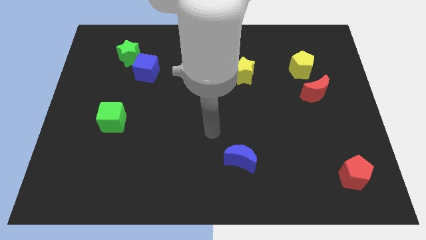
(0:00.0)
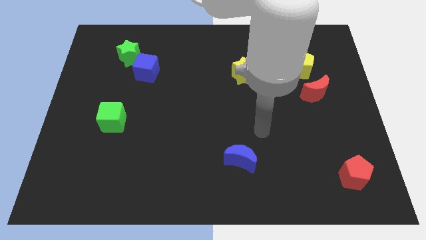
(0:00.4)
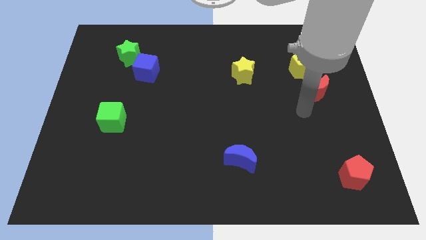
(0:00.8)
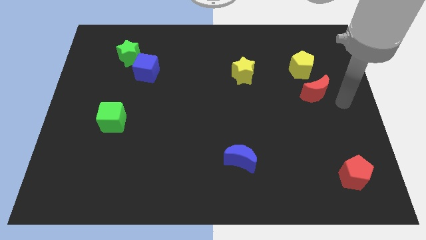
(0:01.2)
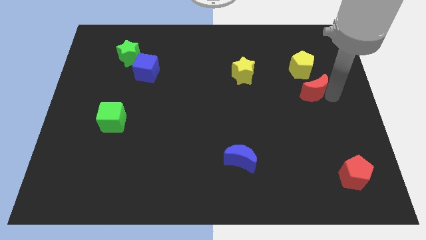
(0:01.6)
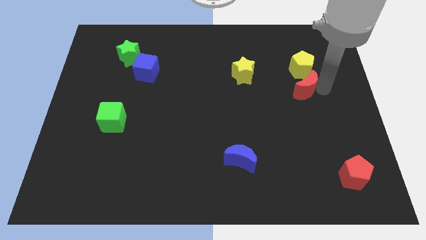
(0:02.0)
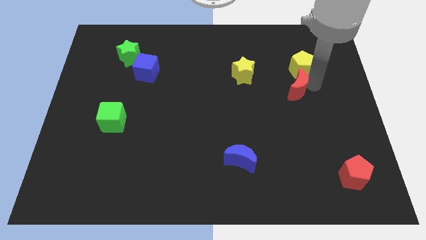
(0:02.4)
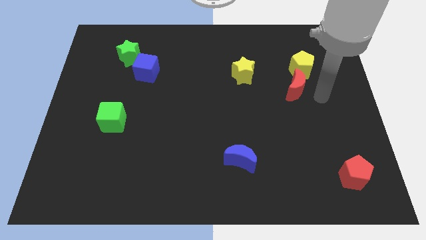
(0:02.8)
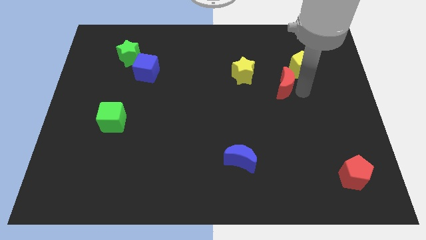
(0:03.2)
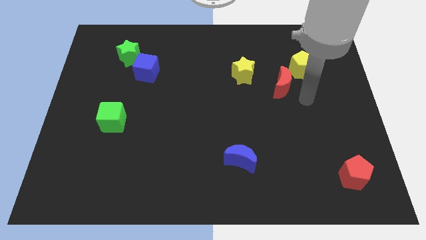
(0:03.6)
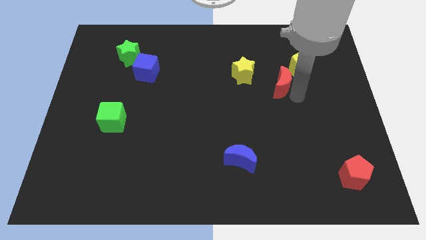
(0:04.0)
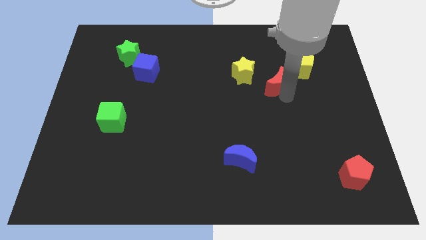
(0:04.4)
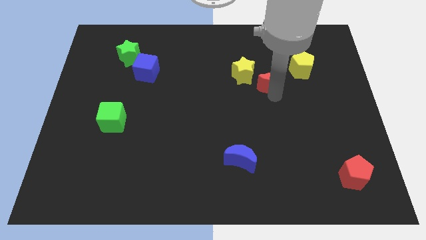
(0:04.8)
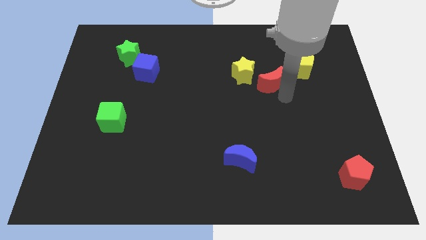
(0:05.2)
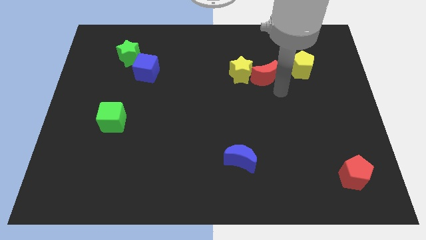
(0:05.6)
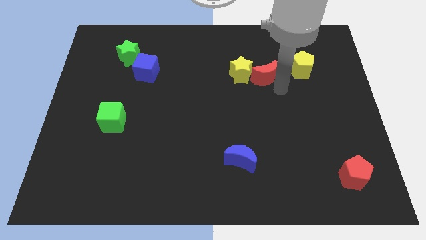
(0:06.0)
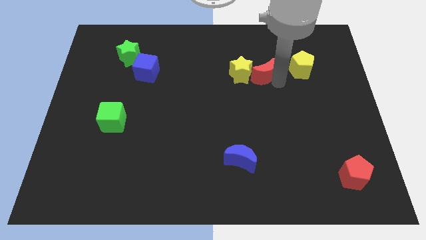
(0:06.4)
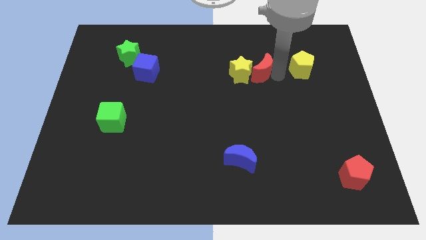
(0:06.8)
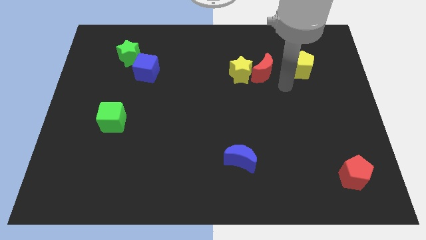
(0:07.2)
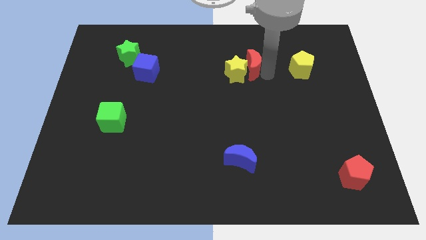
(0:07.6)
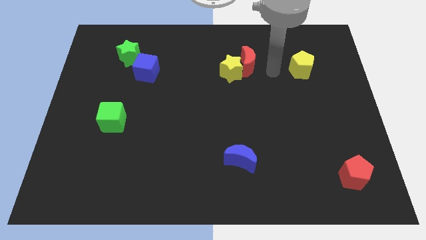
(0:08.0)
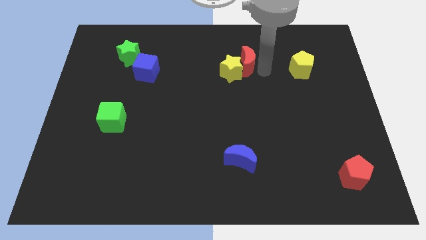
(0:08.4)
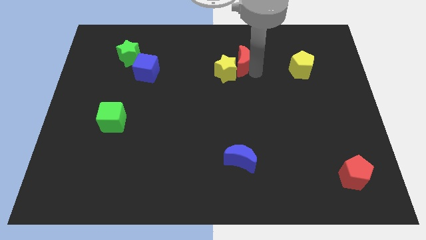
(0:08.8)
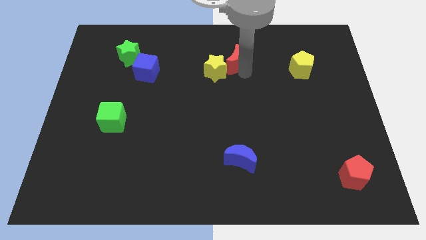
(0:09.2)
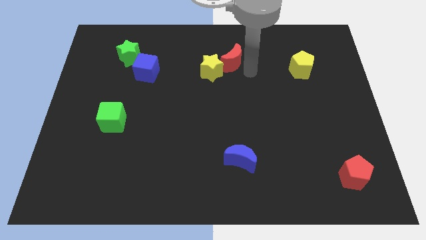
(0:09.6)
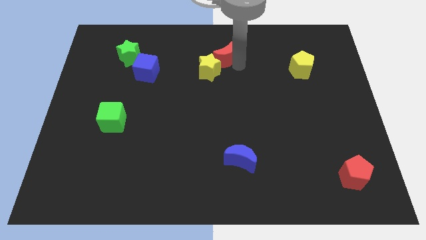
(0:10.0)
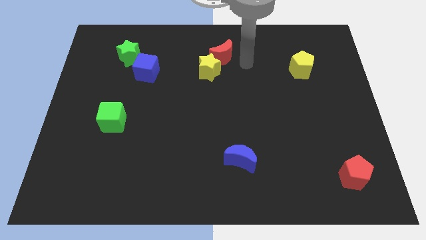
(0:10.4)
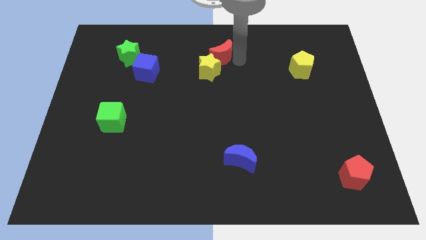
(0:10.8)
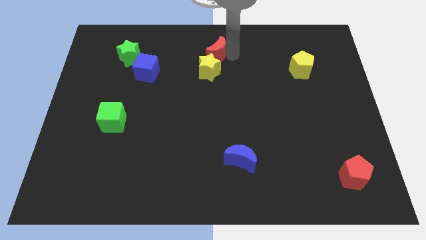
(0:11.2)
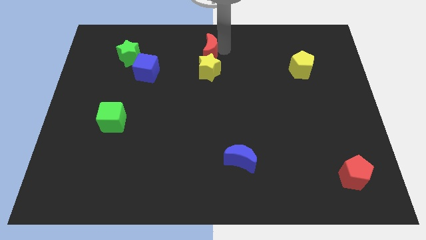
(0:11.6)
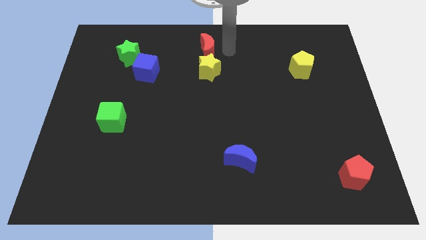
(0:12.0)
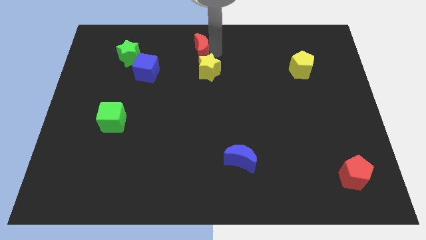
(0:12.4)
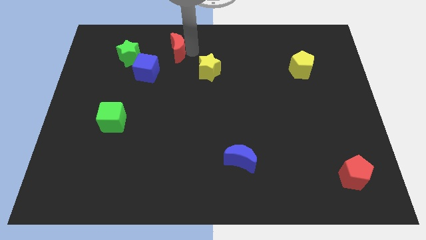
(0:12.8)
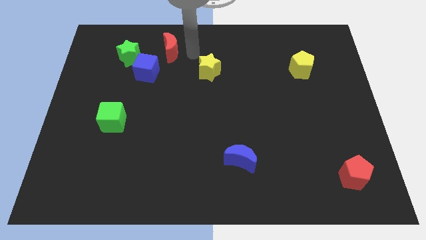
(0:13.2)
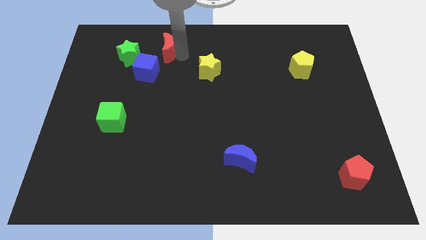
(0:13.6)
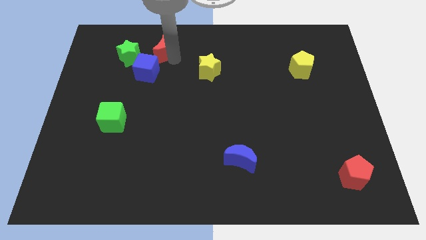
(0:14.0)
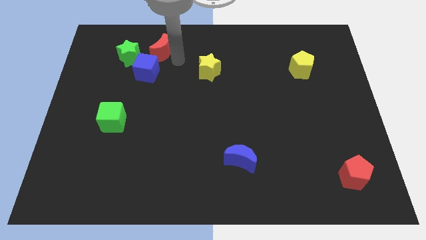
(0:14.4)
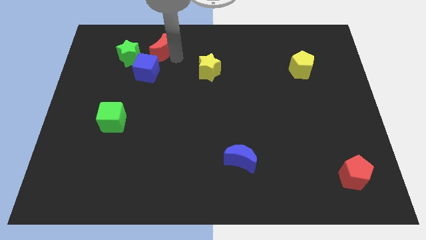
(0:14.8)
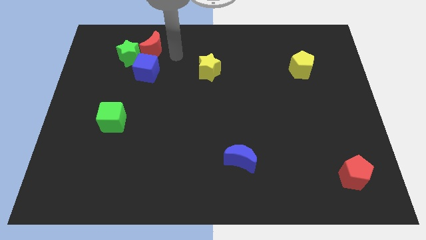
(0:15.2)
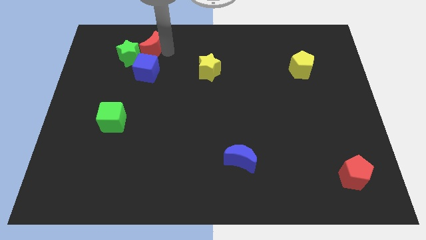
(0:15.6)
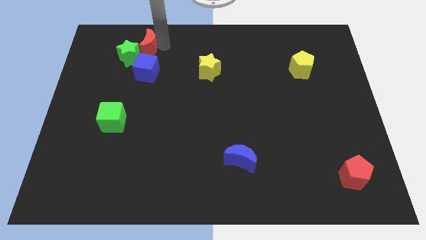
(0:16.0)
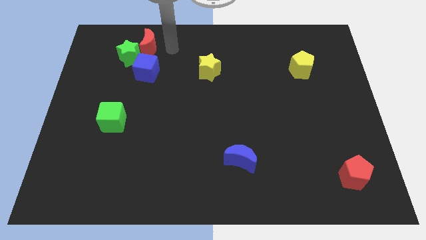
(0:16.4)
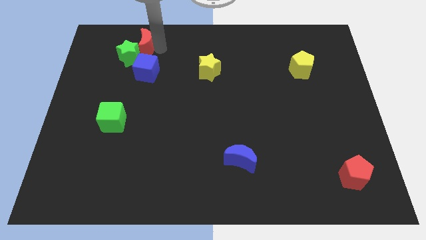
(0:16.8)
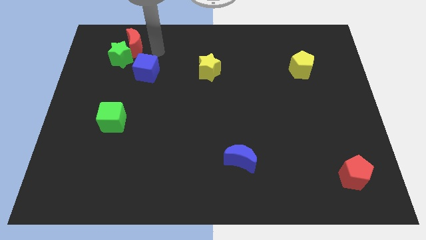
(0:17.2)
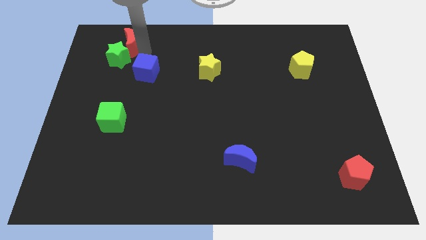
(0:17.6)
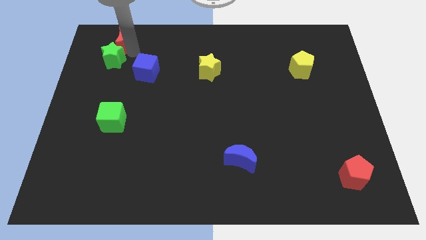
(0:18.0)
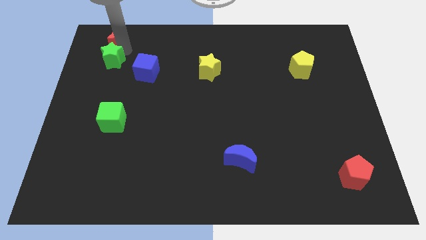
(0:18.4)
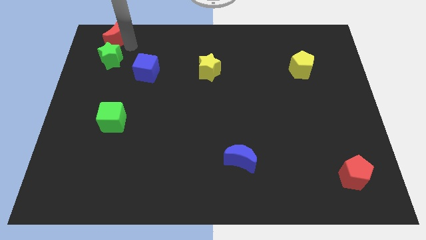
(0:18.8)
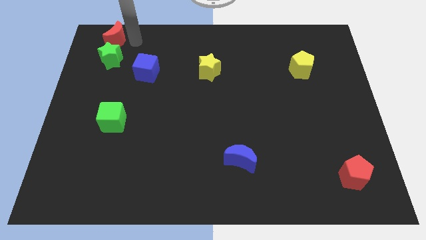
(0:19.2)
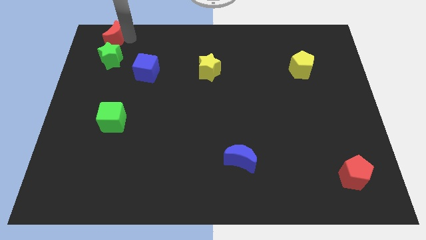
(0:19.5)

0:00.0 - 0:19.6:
push the red moon to the top left

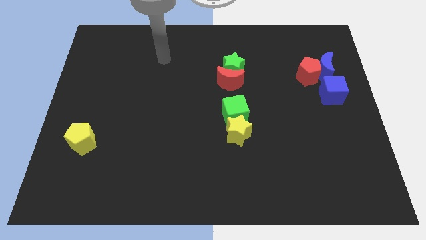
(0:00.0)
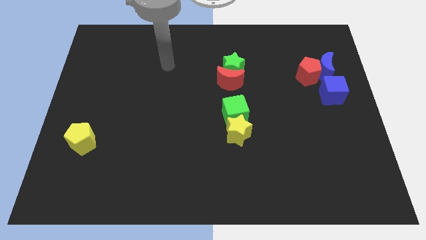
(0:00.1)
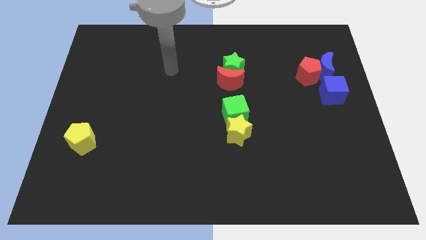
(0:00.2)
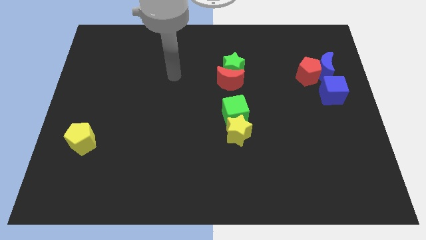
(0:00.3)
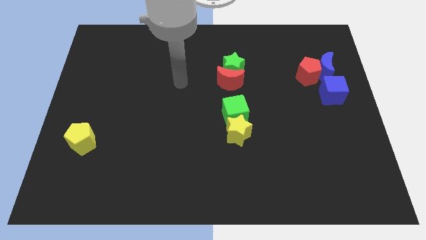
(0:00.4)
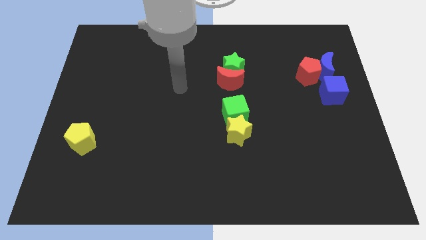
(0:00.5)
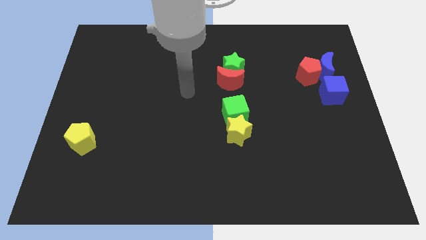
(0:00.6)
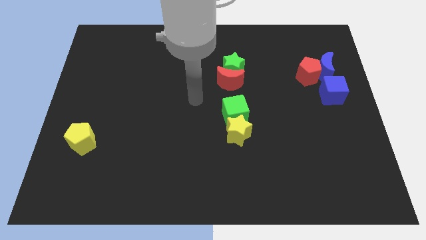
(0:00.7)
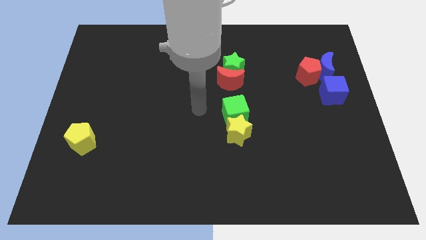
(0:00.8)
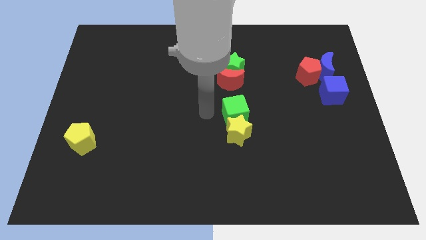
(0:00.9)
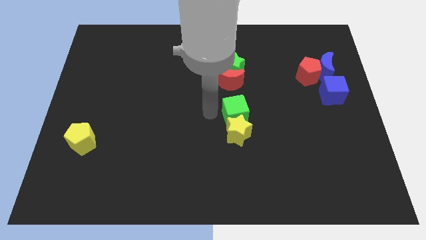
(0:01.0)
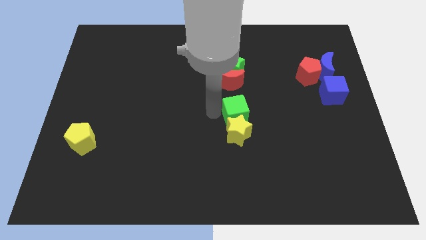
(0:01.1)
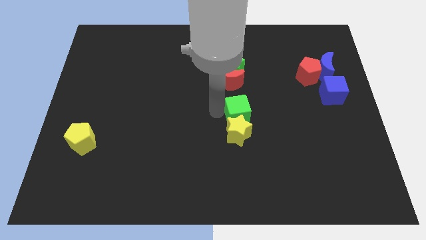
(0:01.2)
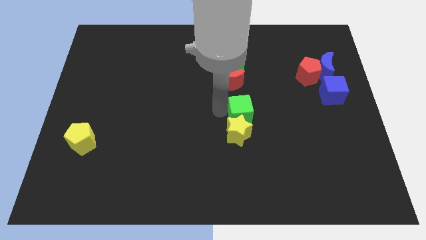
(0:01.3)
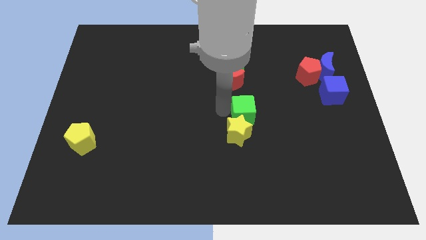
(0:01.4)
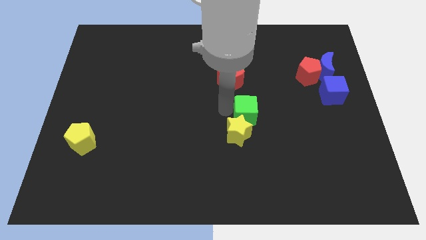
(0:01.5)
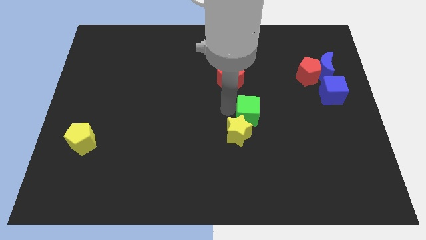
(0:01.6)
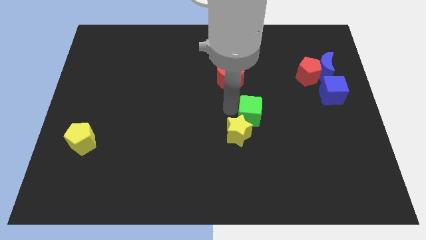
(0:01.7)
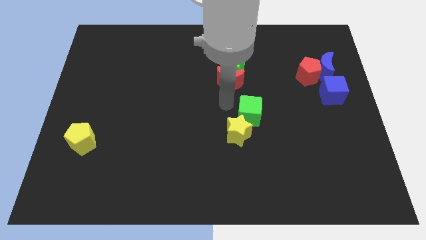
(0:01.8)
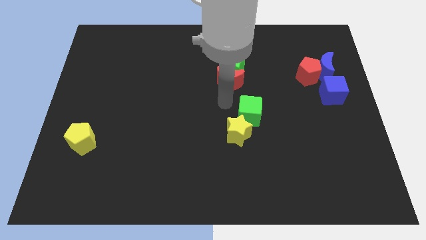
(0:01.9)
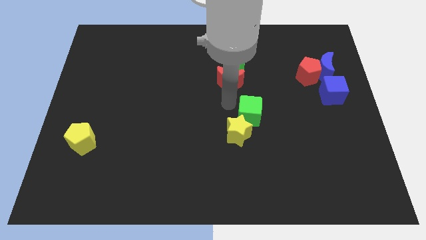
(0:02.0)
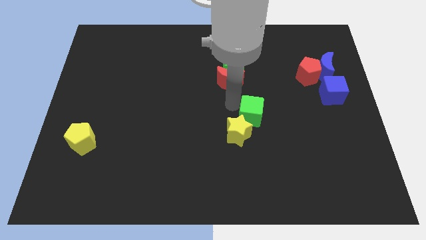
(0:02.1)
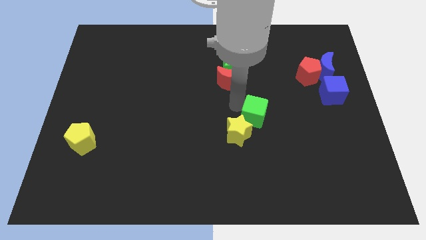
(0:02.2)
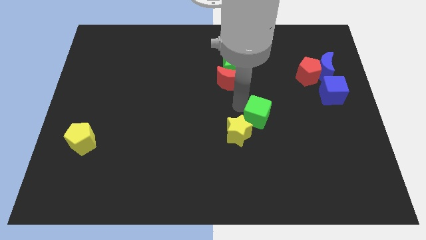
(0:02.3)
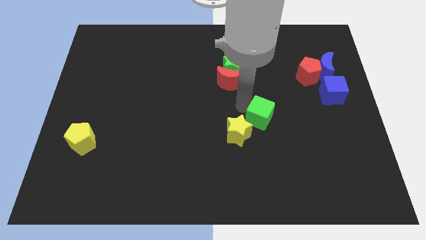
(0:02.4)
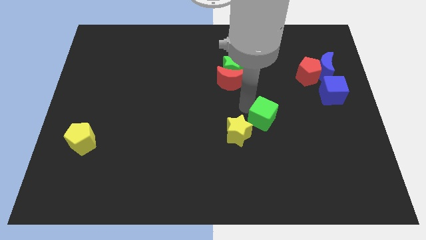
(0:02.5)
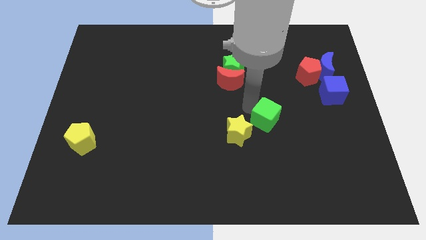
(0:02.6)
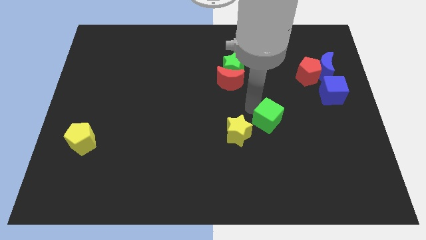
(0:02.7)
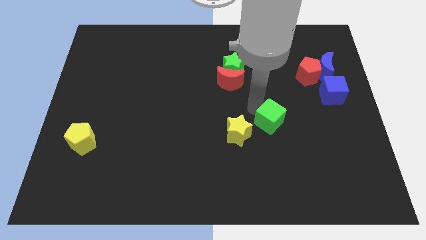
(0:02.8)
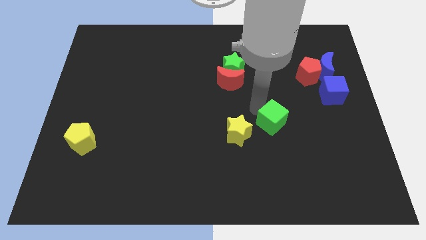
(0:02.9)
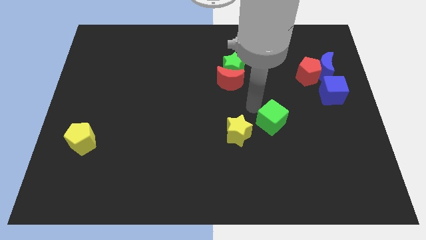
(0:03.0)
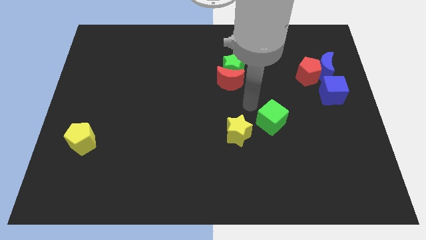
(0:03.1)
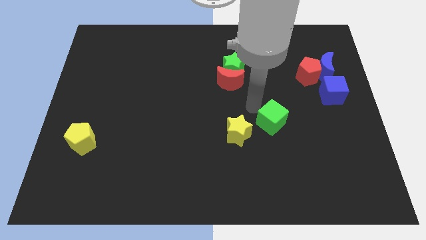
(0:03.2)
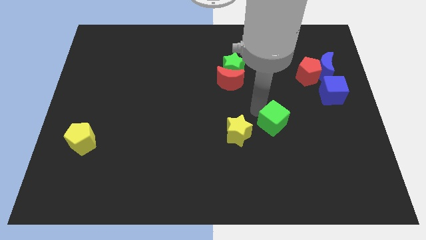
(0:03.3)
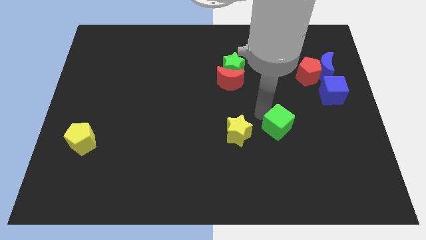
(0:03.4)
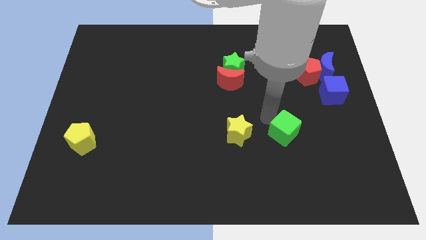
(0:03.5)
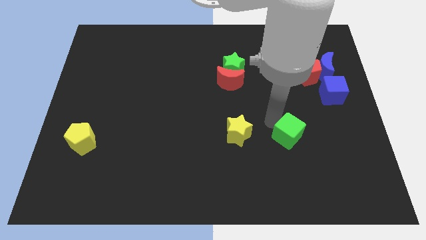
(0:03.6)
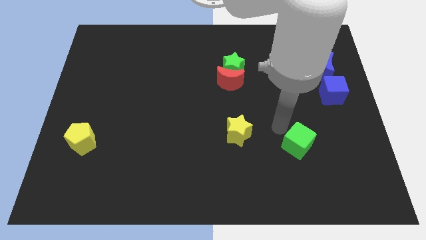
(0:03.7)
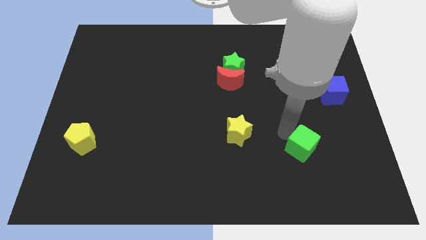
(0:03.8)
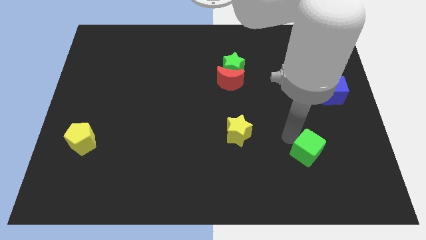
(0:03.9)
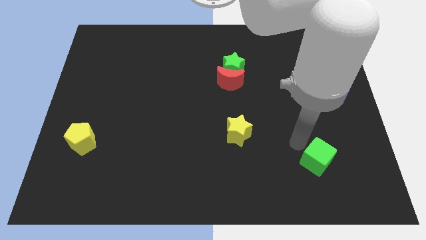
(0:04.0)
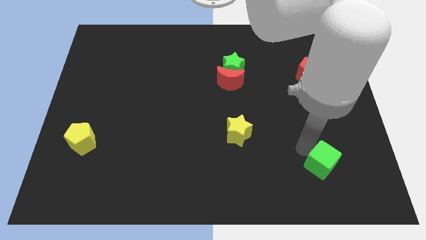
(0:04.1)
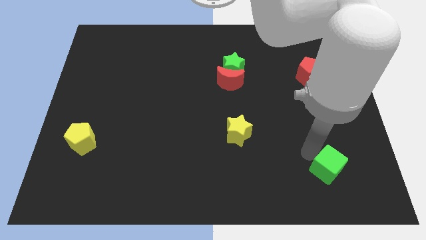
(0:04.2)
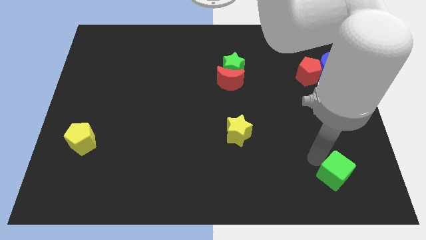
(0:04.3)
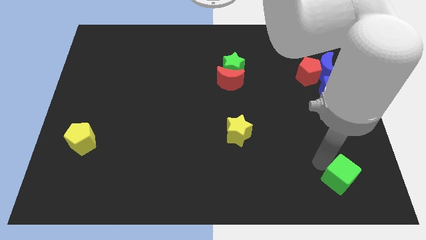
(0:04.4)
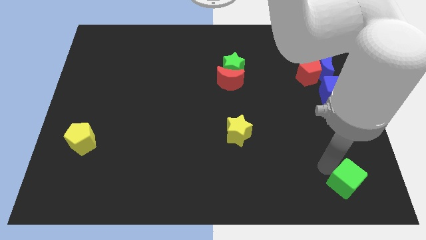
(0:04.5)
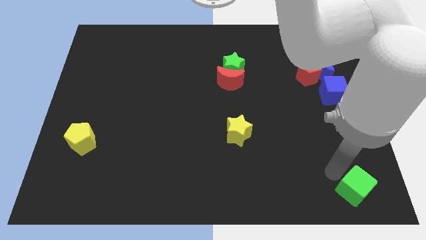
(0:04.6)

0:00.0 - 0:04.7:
put the green cube to the bottom right of the board
